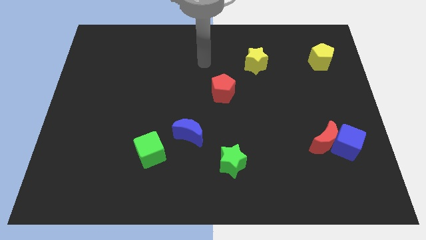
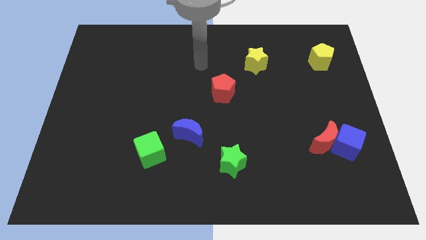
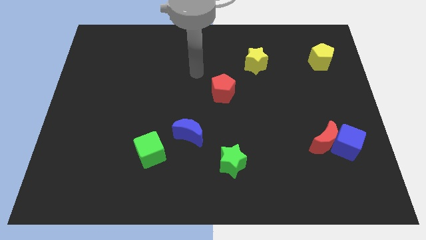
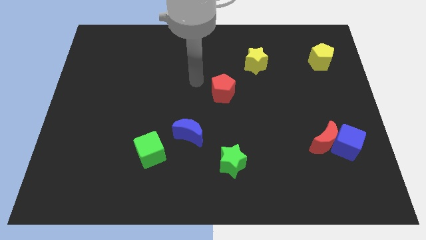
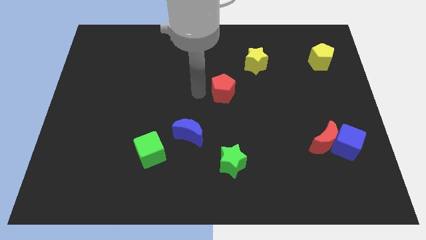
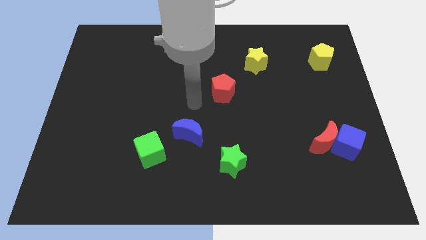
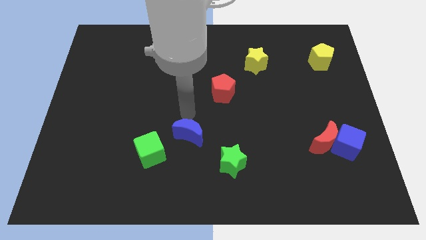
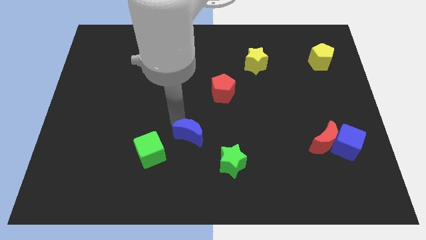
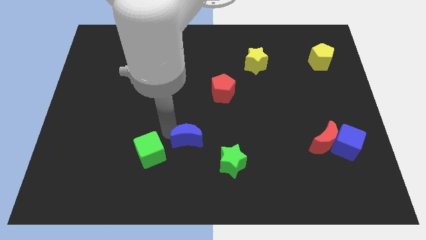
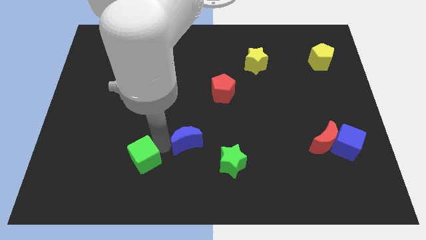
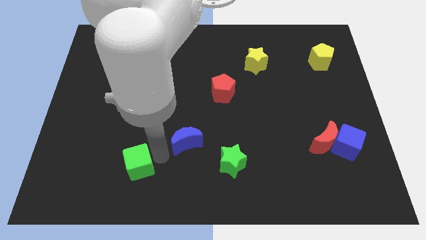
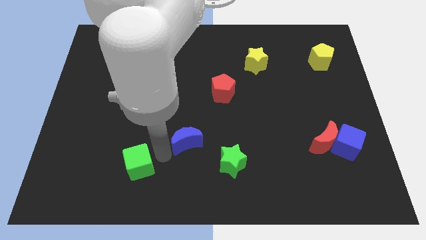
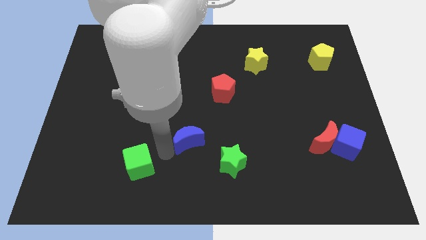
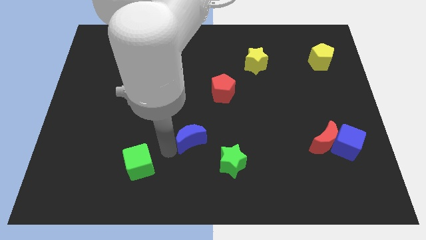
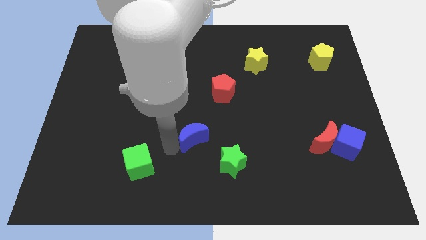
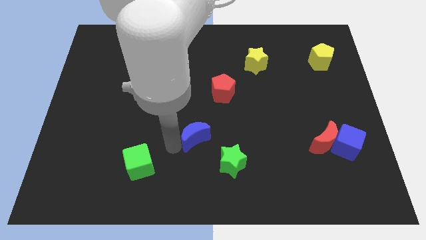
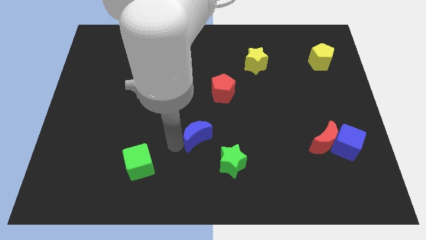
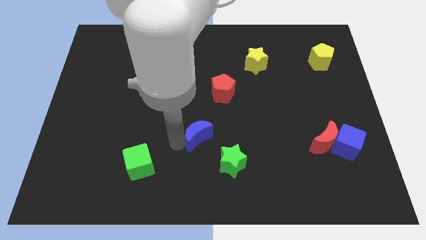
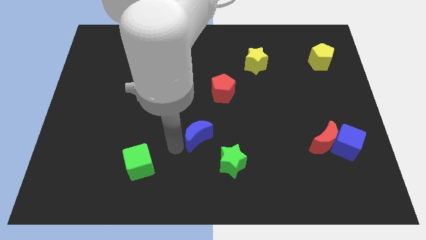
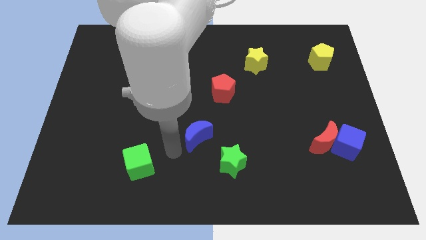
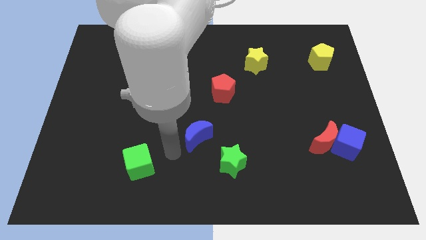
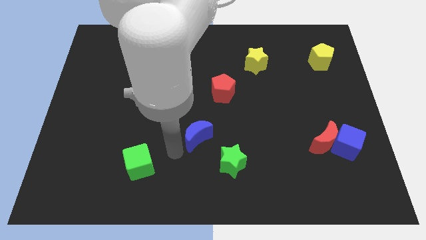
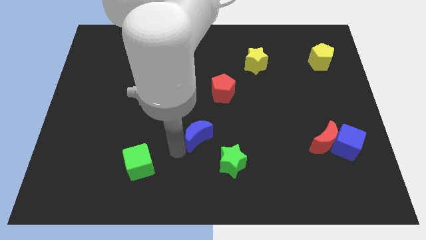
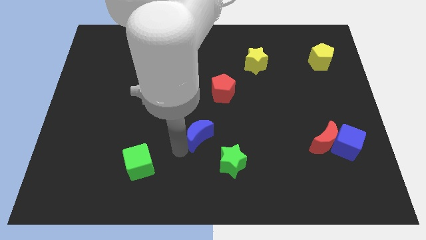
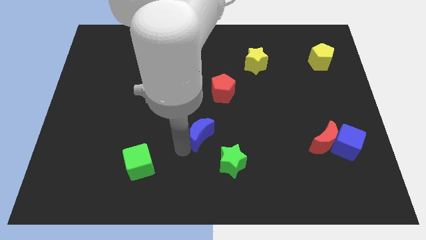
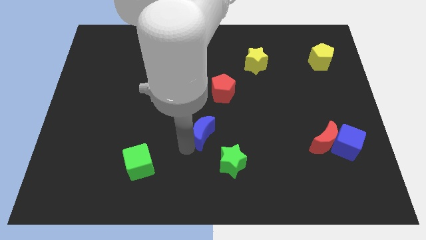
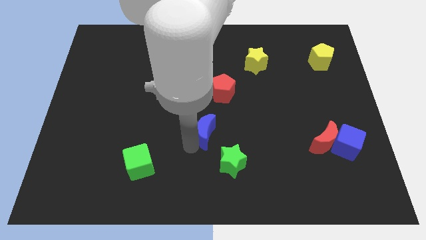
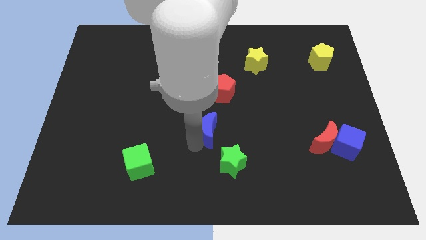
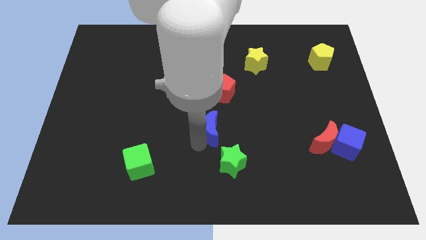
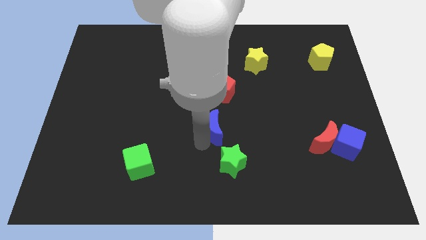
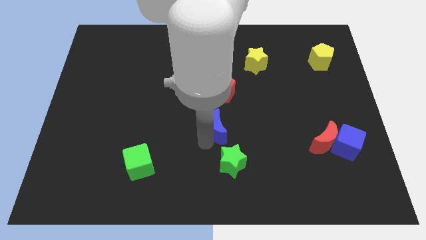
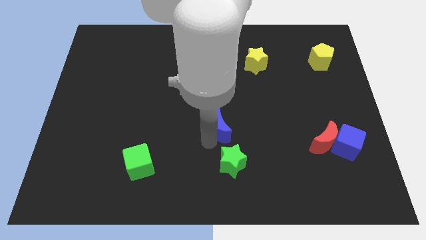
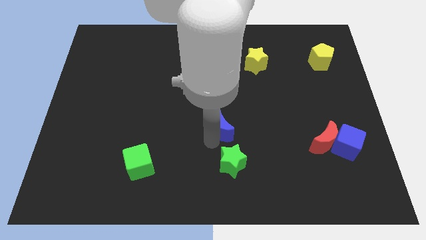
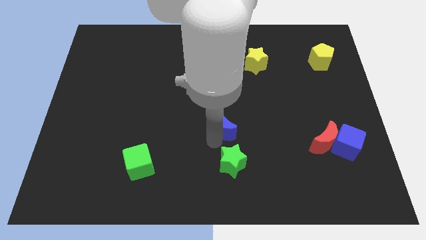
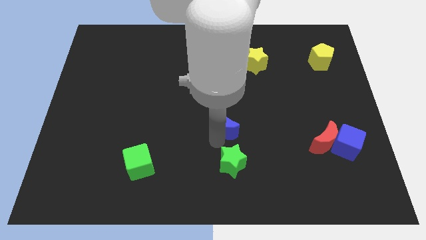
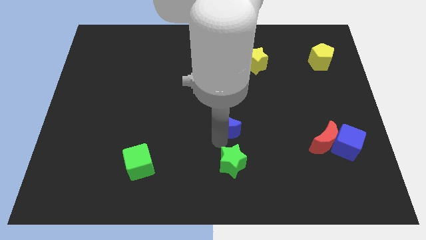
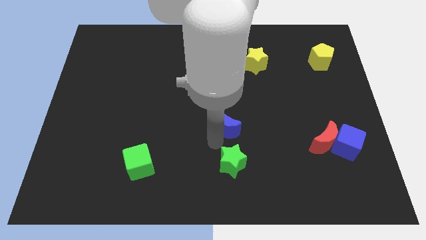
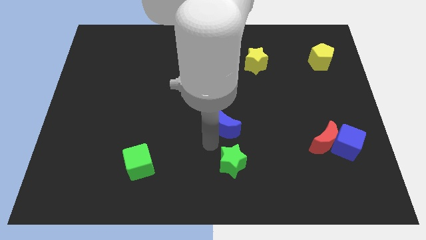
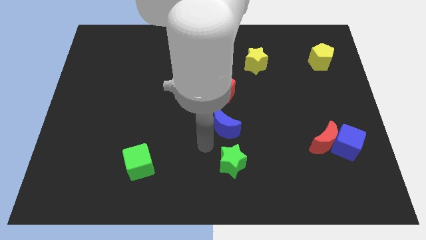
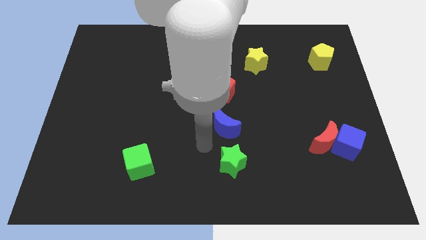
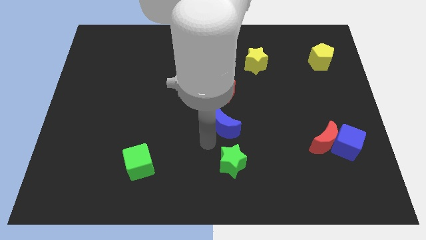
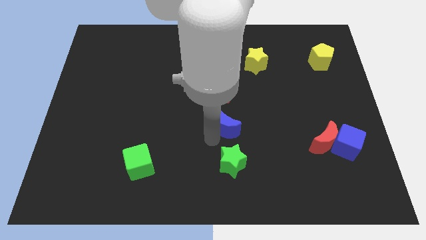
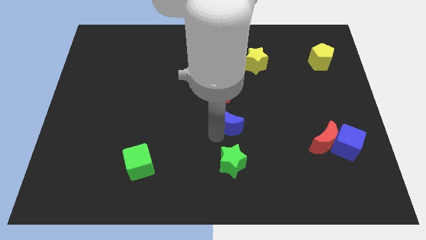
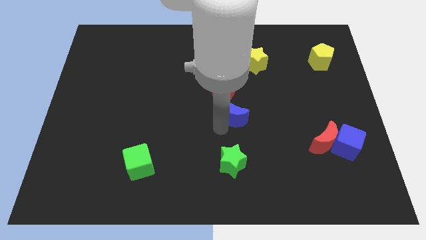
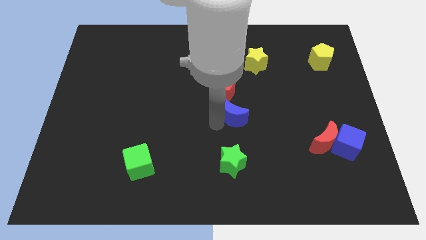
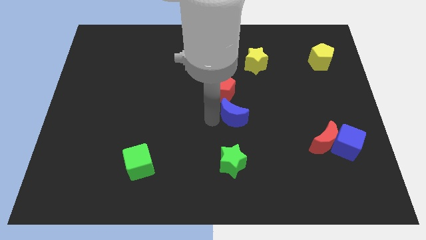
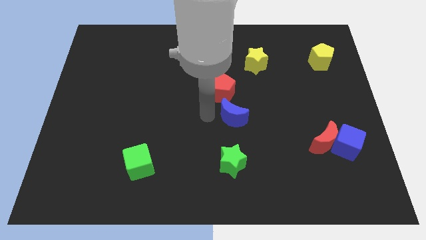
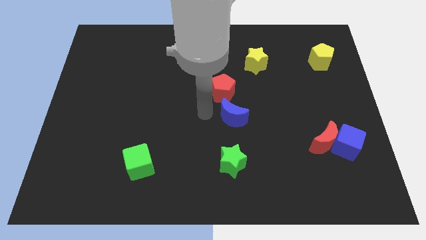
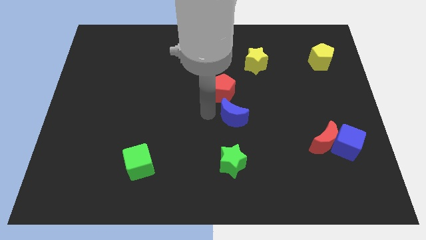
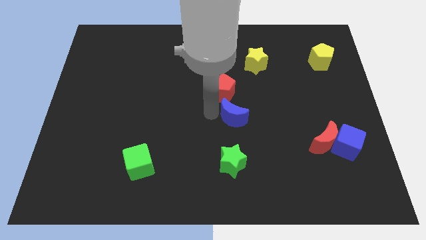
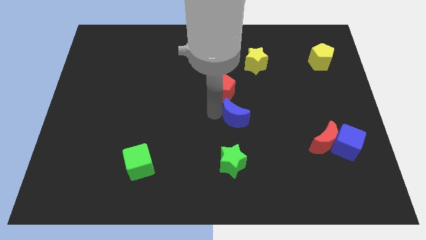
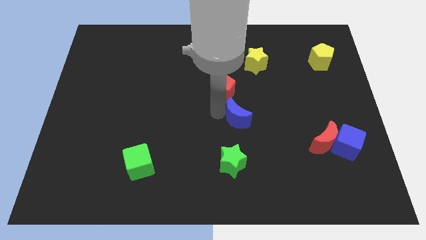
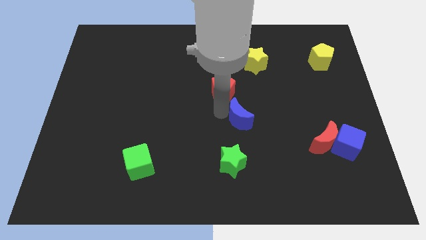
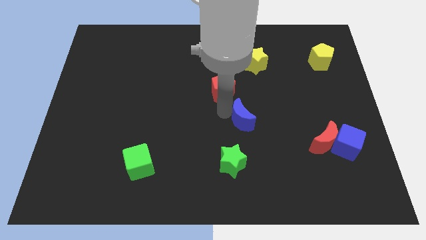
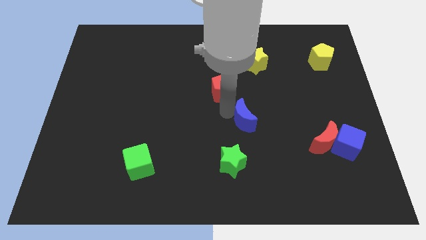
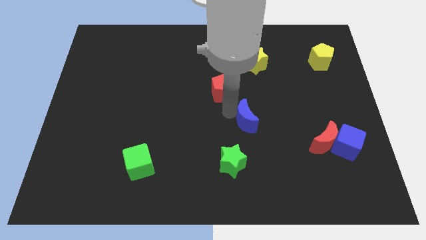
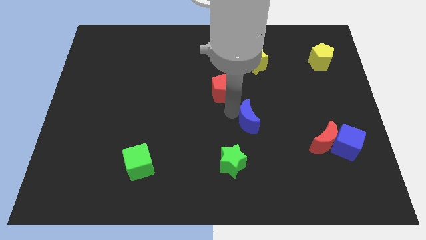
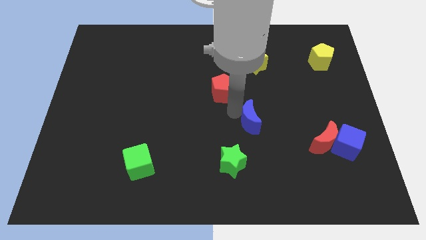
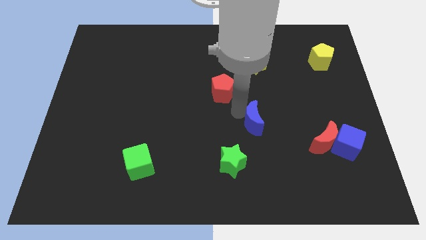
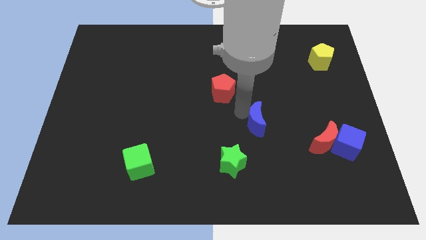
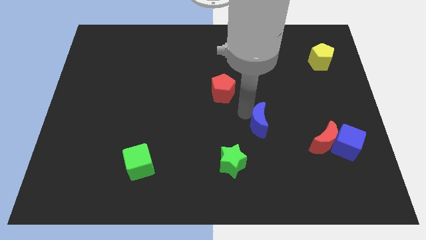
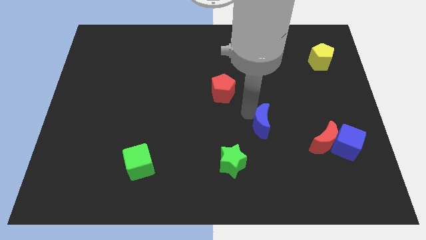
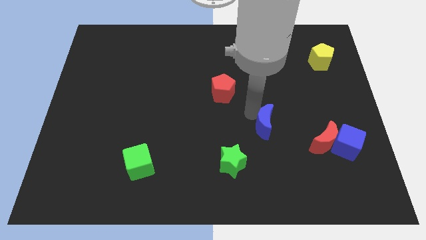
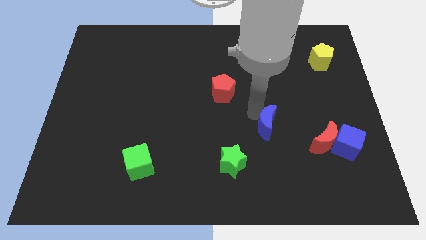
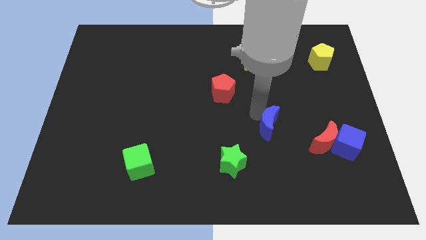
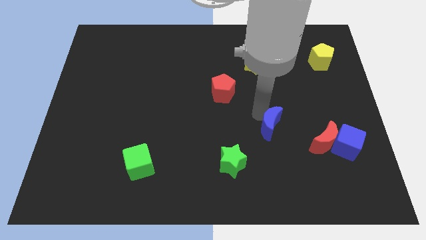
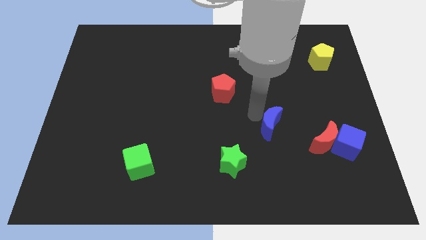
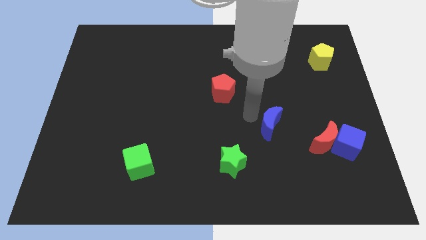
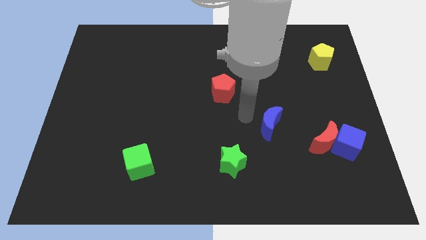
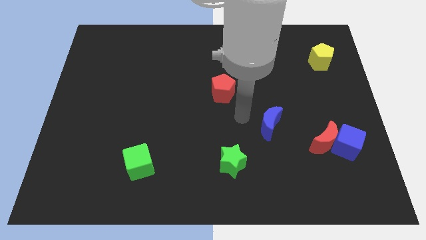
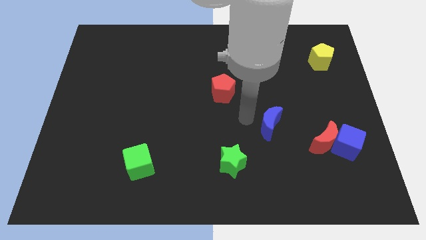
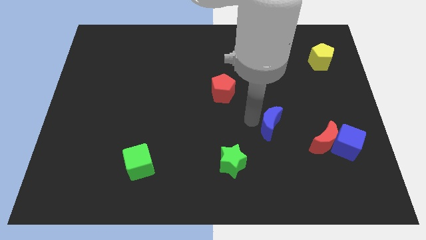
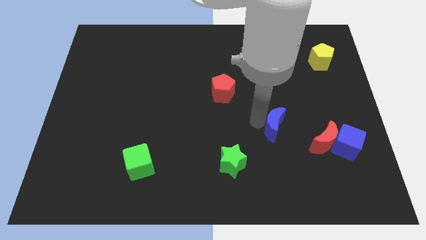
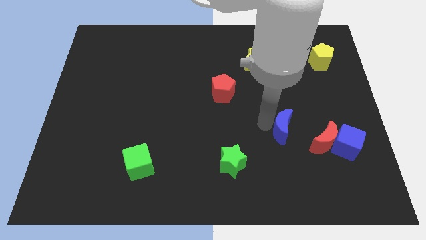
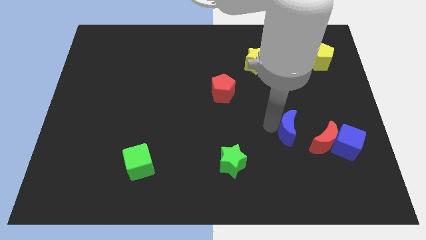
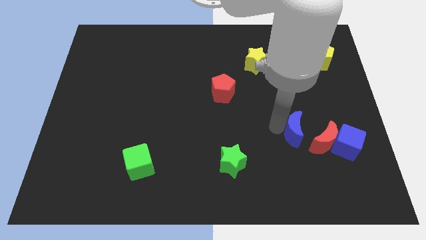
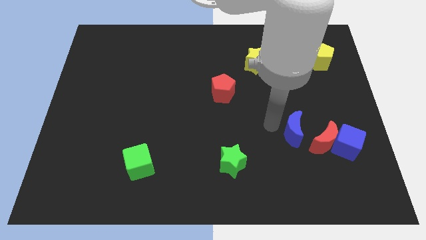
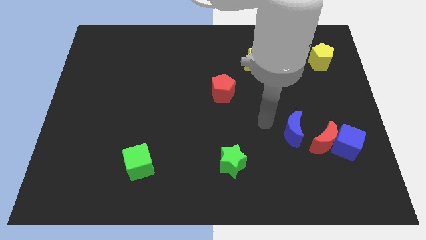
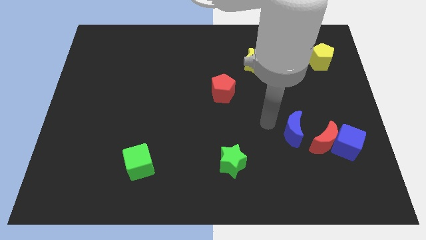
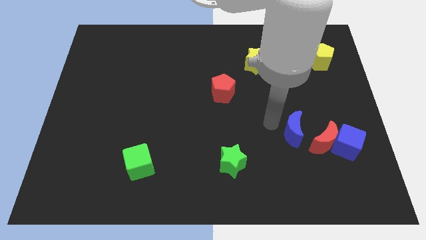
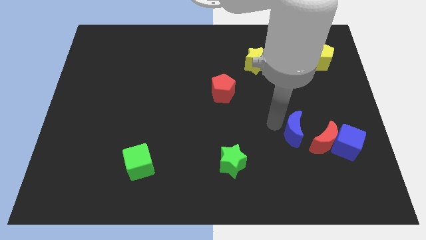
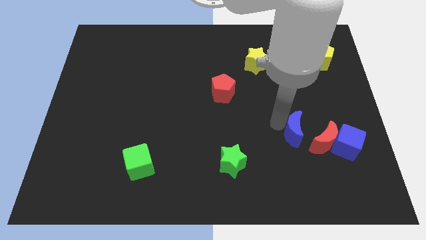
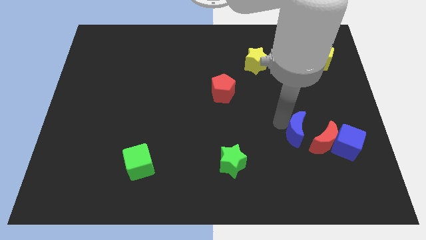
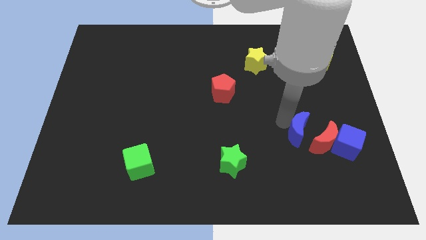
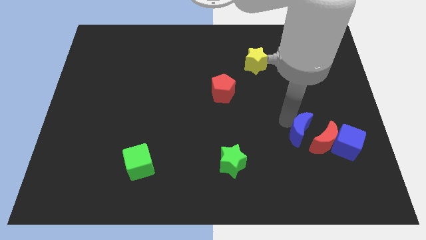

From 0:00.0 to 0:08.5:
put the blue moon next to the red moon
